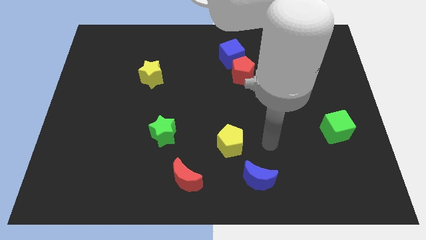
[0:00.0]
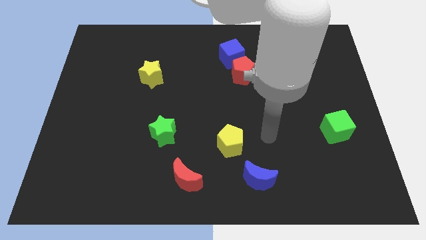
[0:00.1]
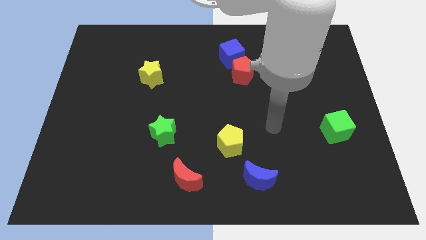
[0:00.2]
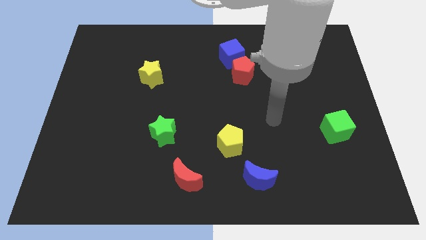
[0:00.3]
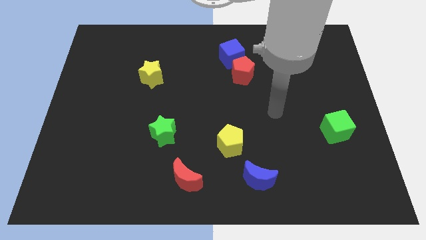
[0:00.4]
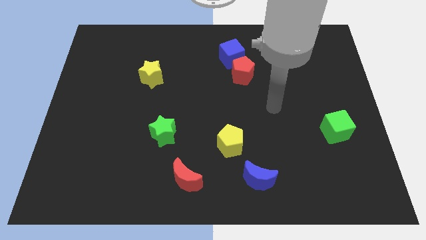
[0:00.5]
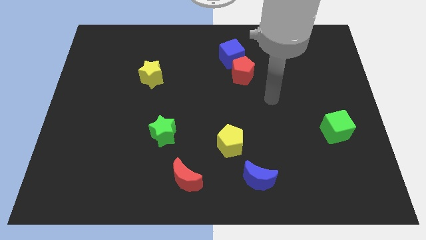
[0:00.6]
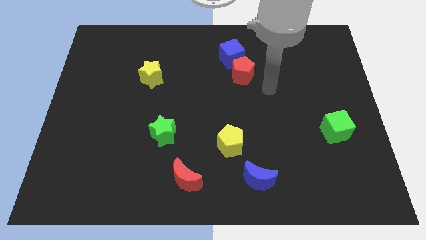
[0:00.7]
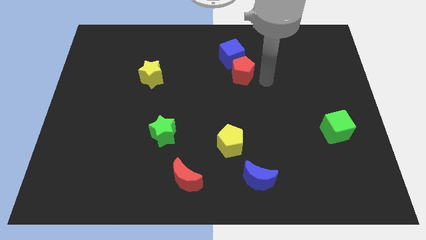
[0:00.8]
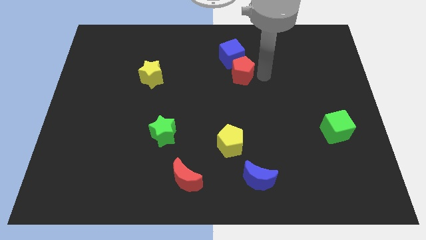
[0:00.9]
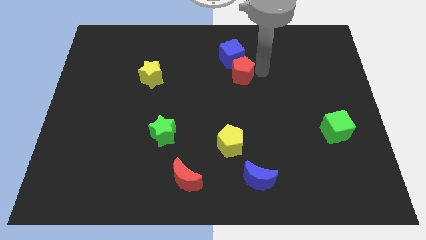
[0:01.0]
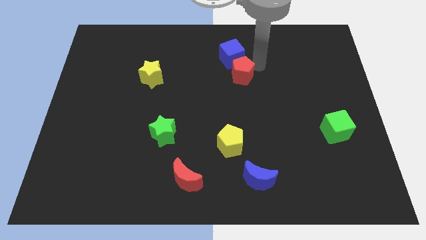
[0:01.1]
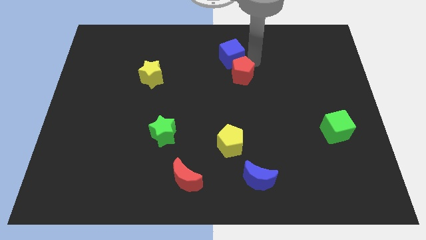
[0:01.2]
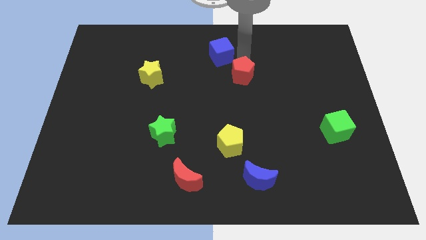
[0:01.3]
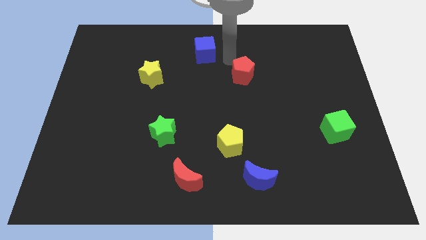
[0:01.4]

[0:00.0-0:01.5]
separate the red pentagon from the blue cube

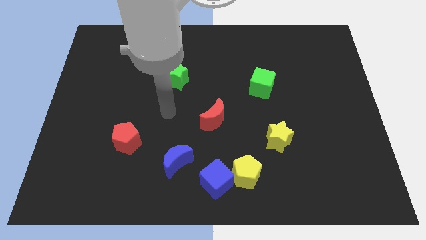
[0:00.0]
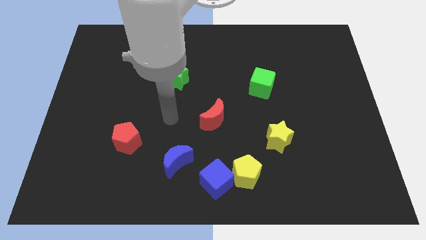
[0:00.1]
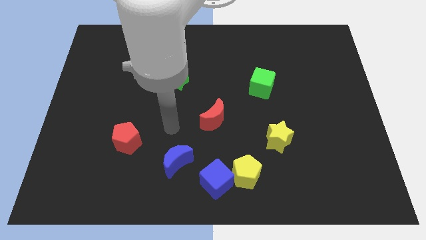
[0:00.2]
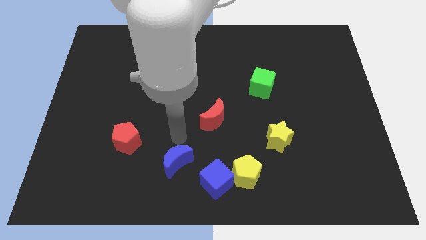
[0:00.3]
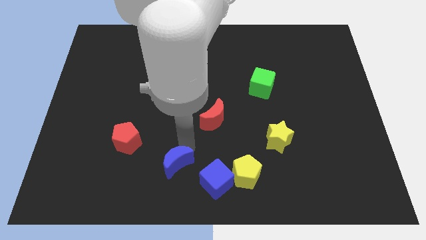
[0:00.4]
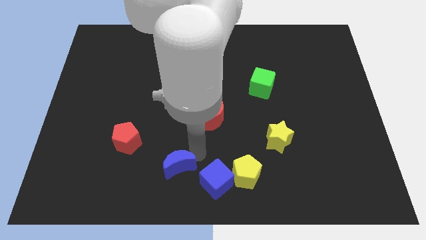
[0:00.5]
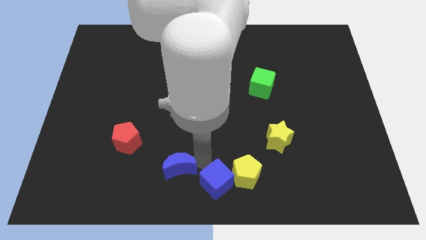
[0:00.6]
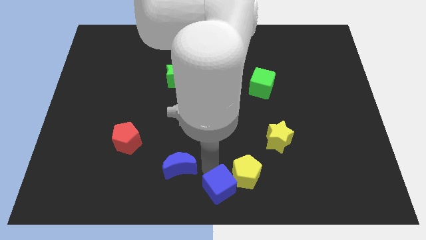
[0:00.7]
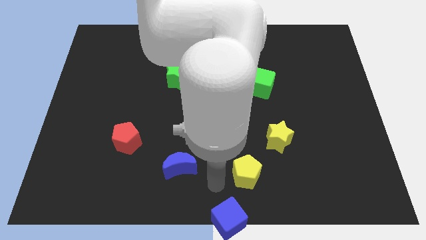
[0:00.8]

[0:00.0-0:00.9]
separate the yellow pentagon from the blue cube

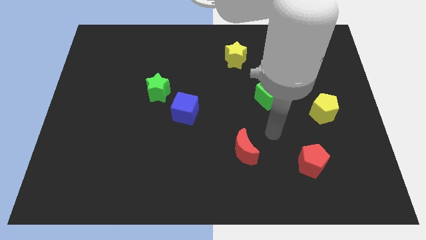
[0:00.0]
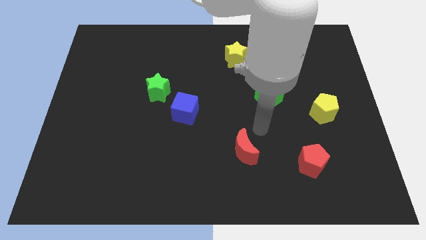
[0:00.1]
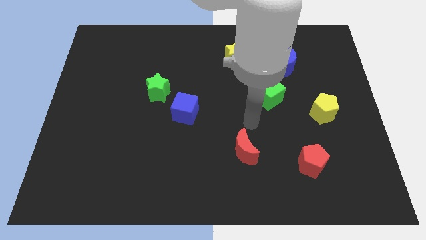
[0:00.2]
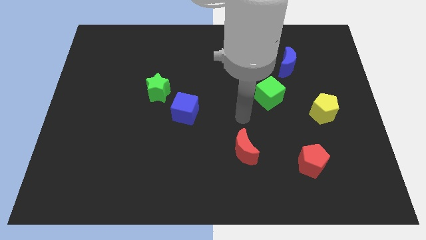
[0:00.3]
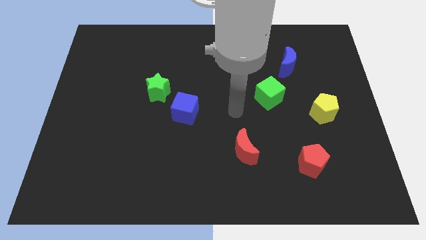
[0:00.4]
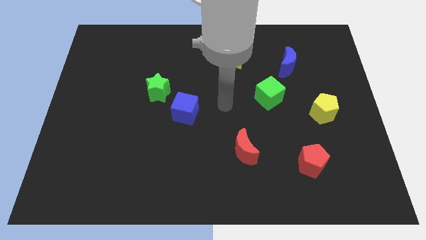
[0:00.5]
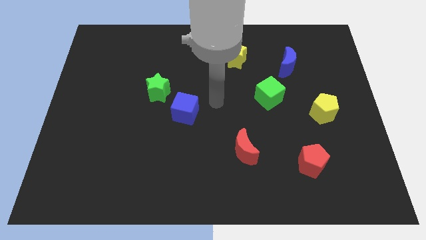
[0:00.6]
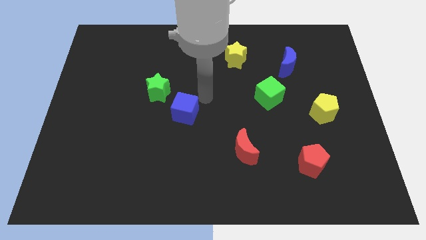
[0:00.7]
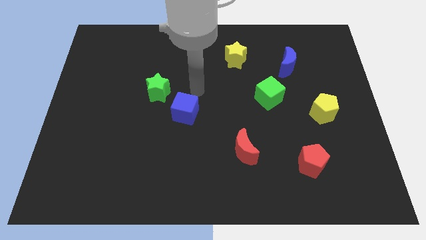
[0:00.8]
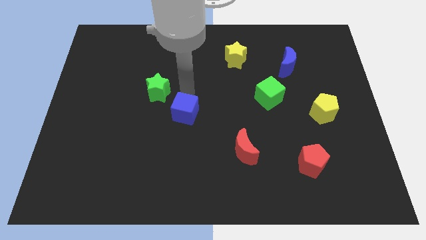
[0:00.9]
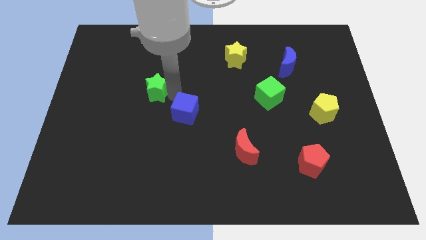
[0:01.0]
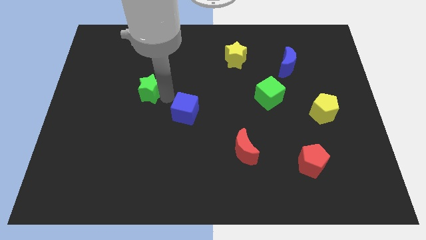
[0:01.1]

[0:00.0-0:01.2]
move the blue cube away from the green star

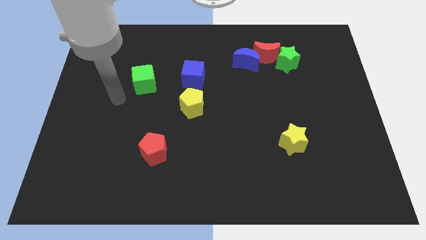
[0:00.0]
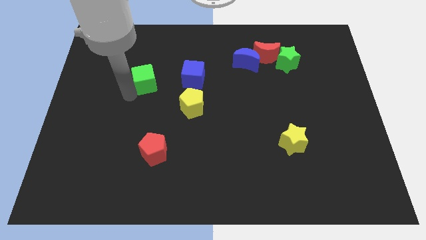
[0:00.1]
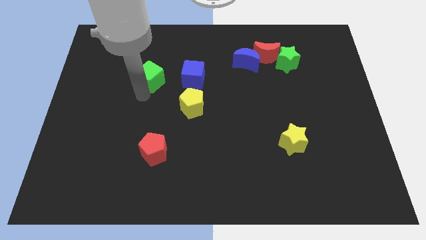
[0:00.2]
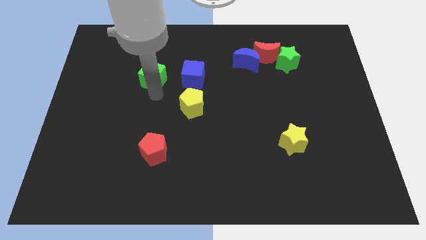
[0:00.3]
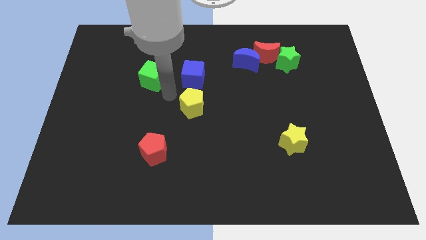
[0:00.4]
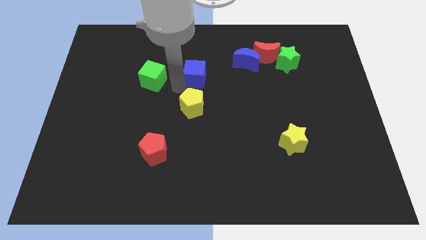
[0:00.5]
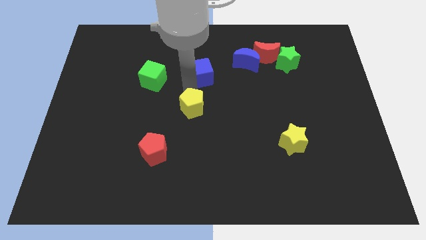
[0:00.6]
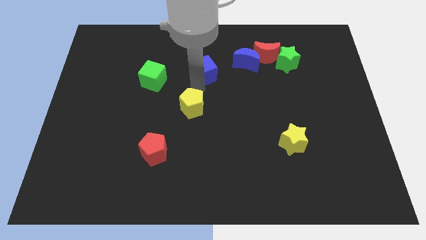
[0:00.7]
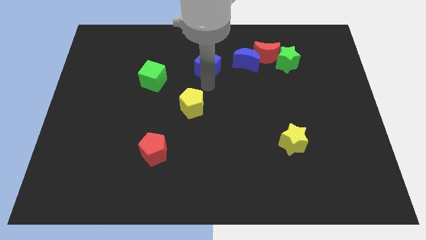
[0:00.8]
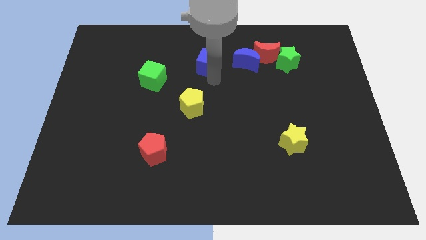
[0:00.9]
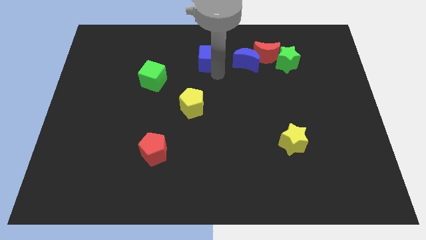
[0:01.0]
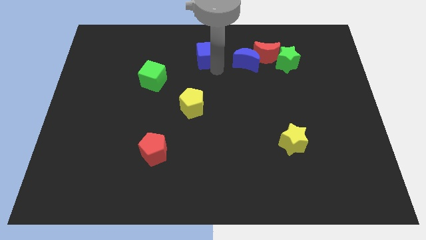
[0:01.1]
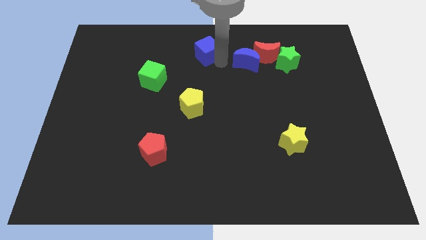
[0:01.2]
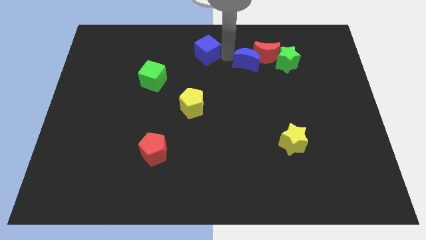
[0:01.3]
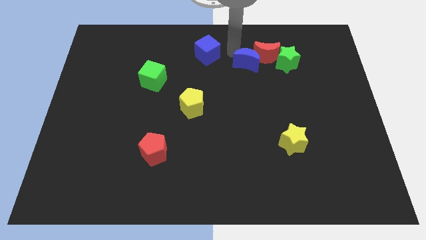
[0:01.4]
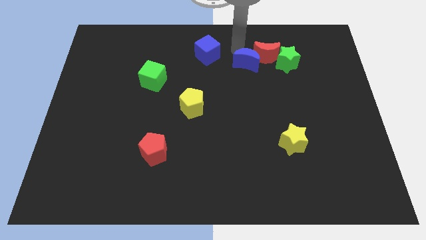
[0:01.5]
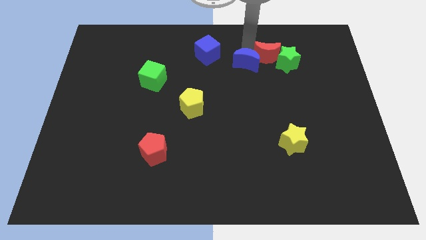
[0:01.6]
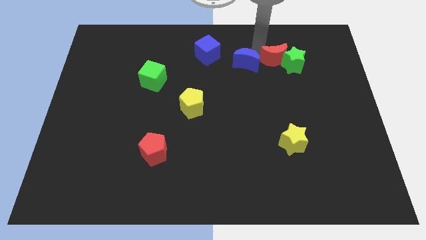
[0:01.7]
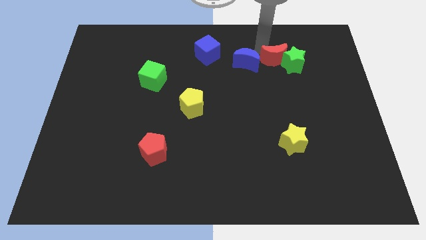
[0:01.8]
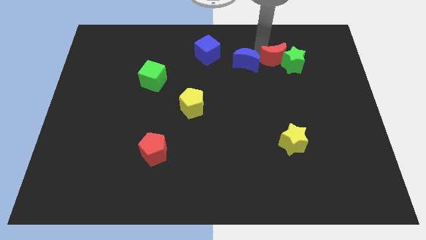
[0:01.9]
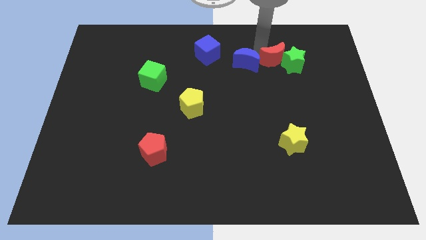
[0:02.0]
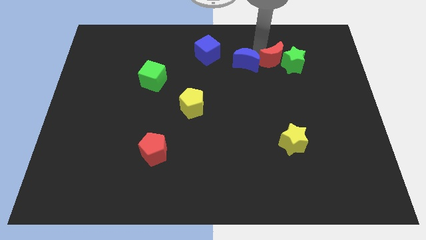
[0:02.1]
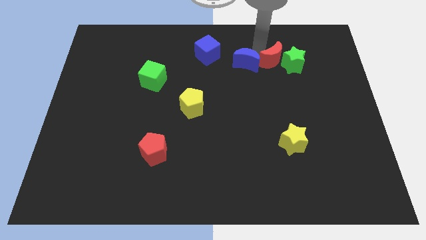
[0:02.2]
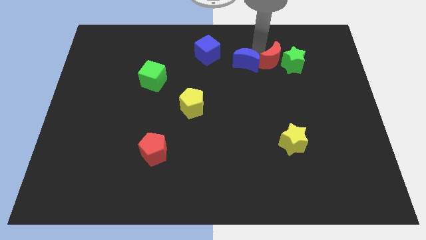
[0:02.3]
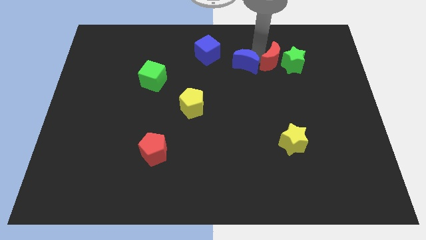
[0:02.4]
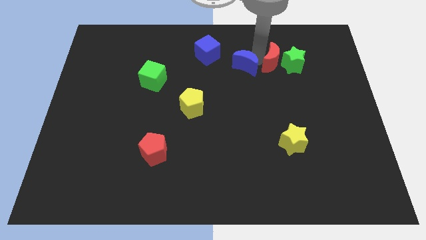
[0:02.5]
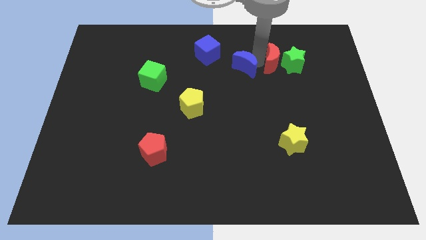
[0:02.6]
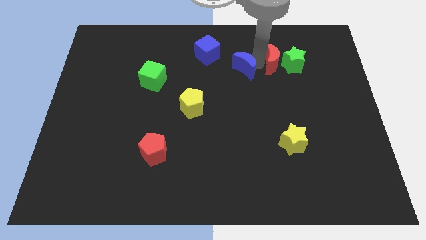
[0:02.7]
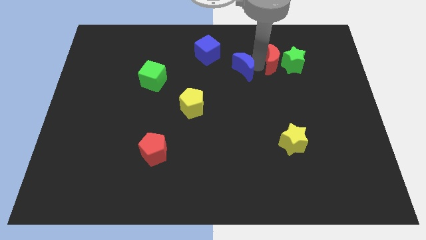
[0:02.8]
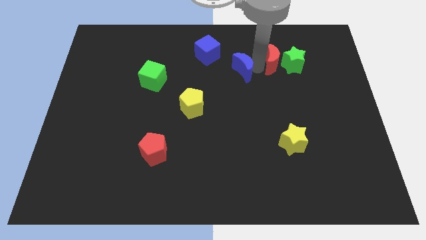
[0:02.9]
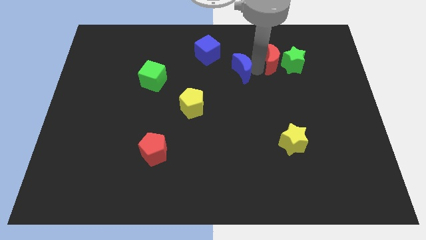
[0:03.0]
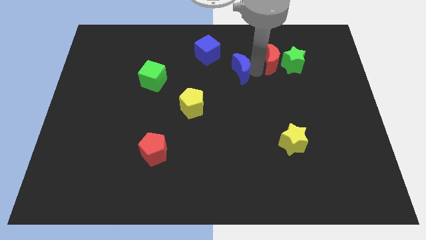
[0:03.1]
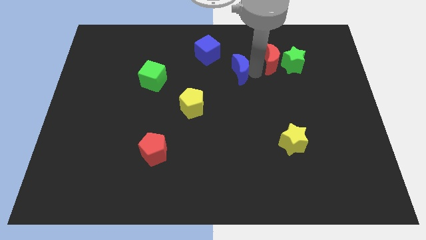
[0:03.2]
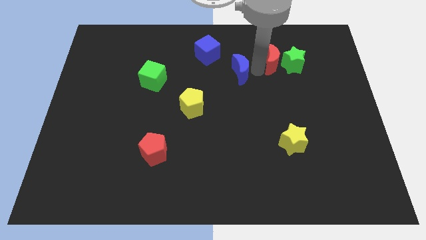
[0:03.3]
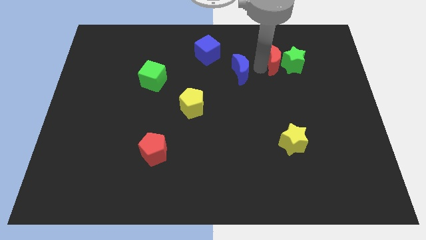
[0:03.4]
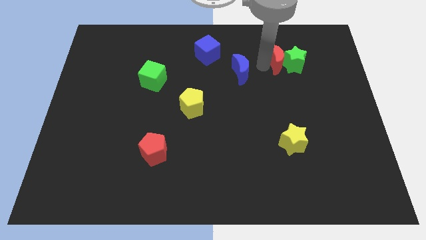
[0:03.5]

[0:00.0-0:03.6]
pull the blue moon apart from the red moon

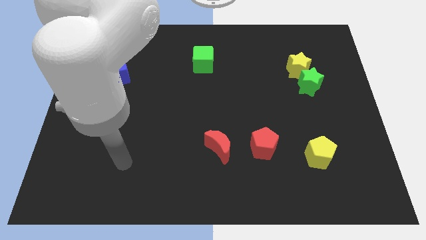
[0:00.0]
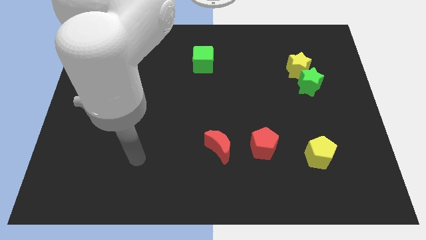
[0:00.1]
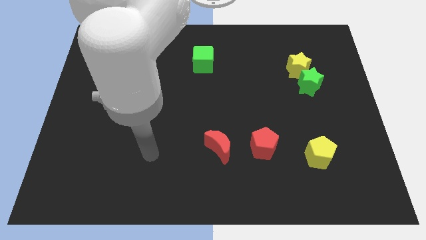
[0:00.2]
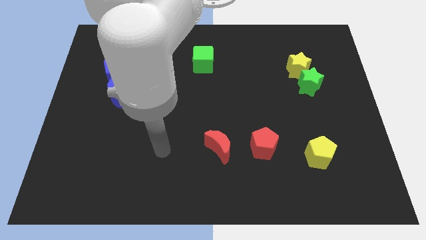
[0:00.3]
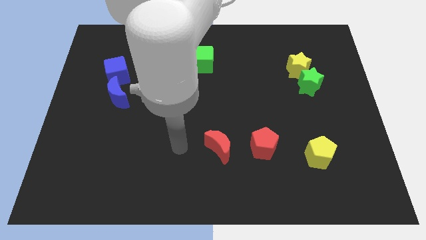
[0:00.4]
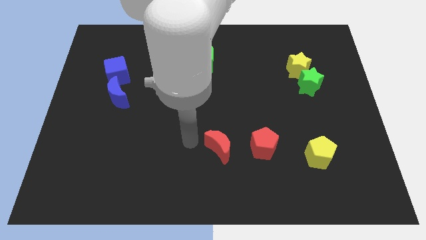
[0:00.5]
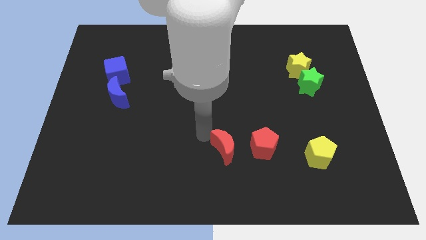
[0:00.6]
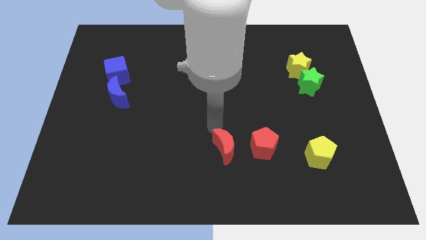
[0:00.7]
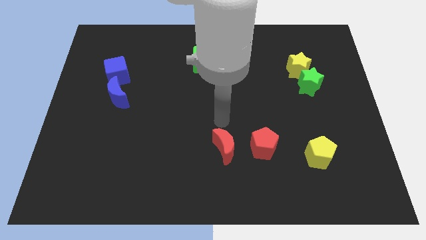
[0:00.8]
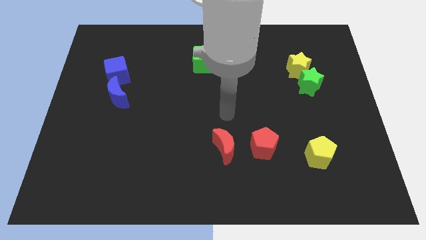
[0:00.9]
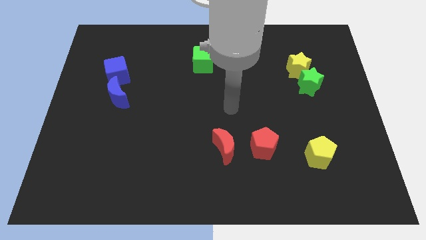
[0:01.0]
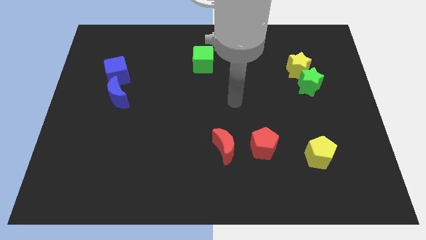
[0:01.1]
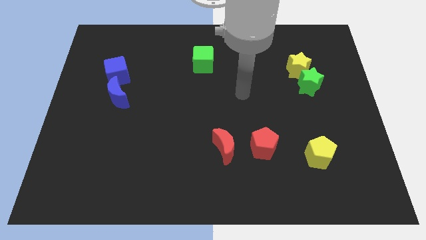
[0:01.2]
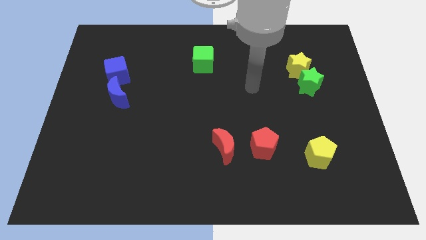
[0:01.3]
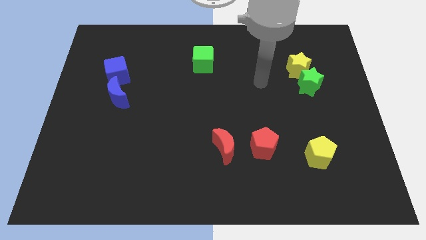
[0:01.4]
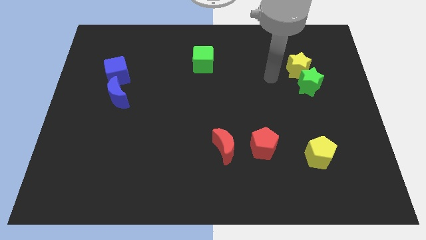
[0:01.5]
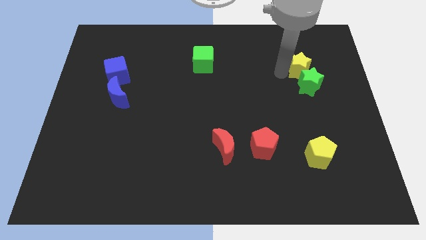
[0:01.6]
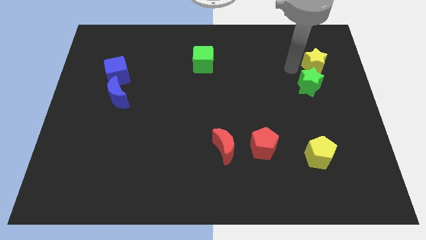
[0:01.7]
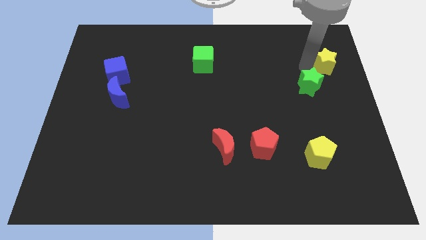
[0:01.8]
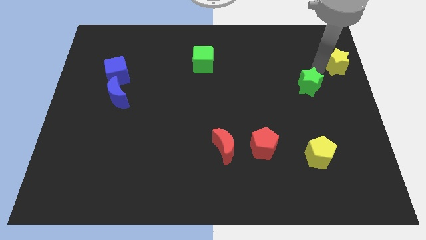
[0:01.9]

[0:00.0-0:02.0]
pull the green star apart from the yellow star

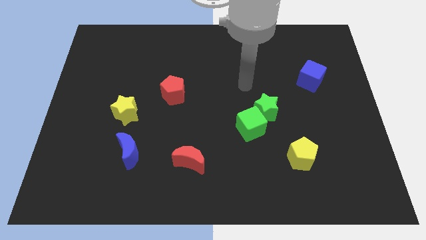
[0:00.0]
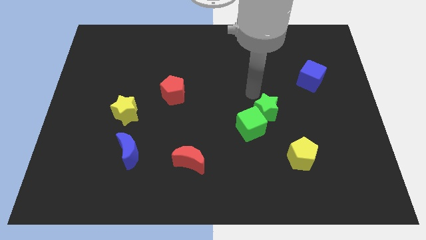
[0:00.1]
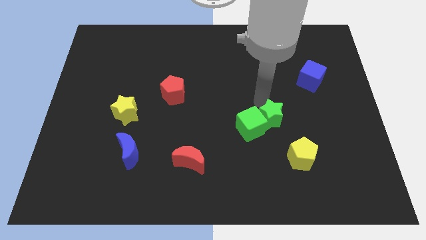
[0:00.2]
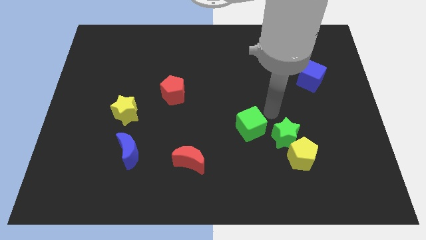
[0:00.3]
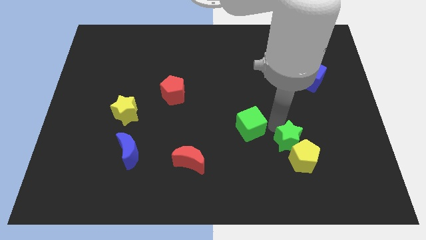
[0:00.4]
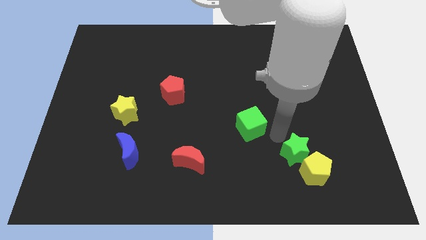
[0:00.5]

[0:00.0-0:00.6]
move the green cube away from the green star
